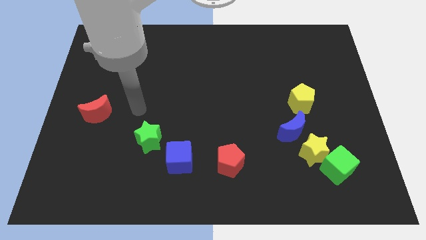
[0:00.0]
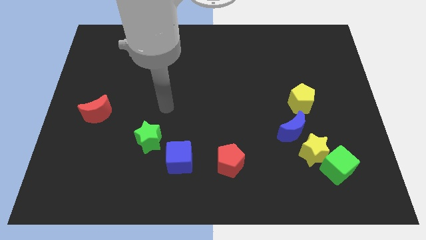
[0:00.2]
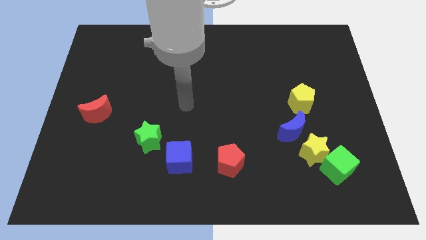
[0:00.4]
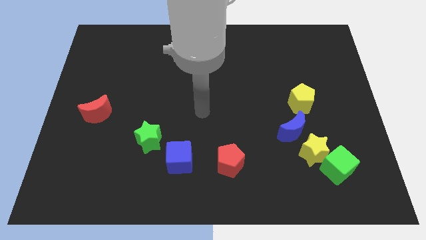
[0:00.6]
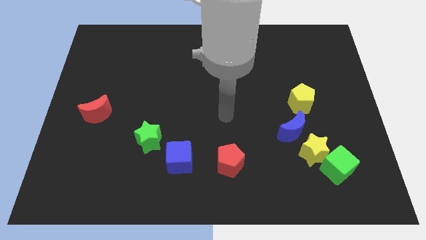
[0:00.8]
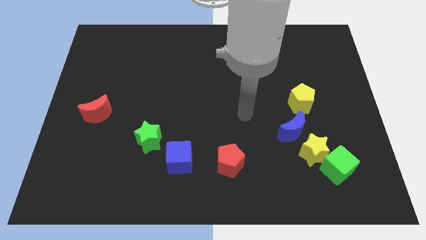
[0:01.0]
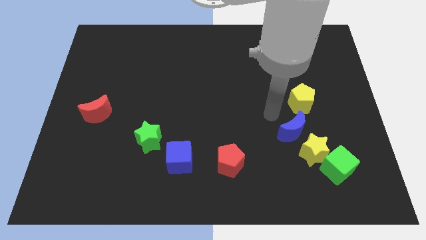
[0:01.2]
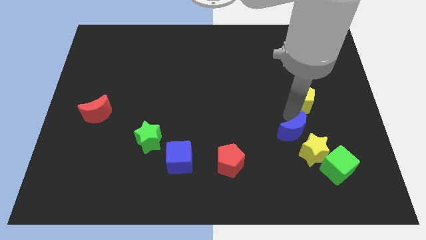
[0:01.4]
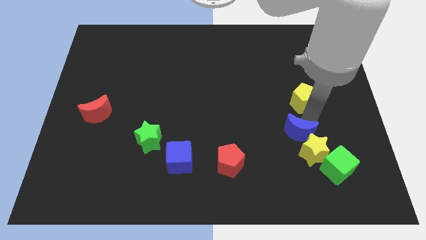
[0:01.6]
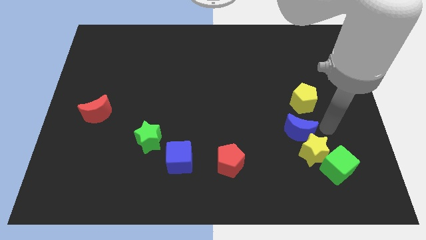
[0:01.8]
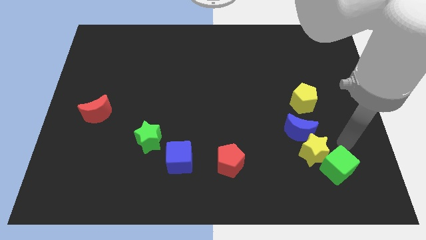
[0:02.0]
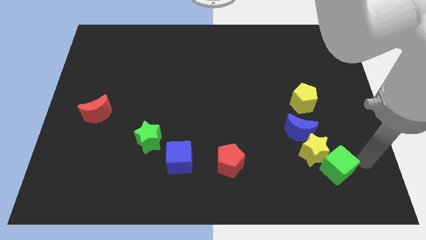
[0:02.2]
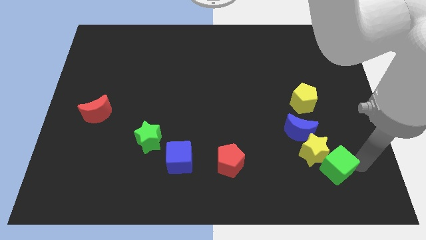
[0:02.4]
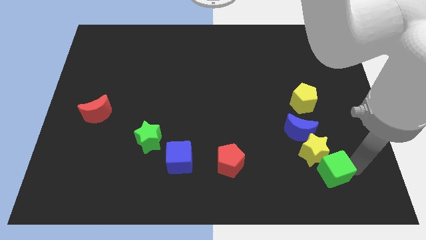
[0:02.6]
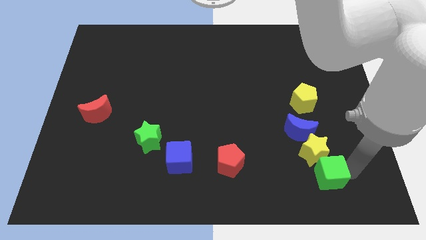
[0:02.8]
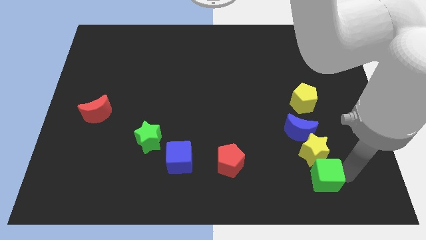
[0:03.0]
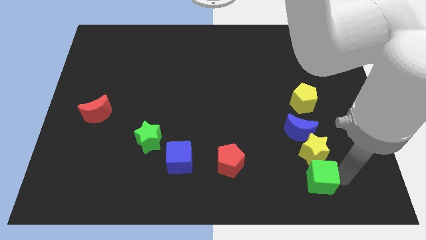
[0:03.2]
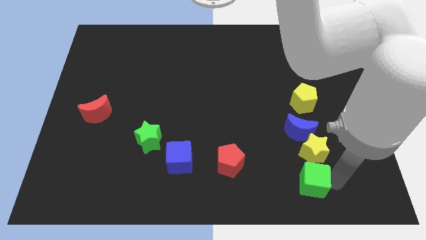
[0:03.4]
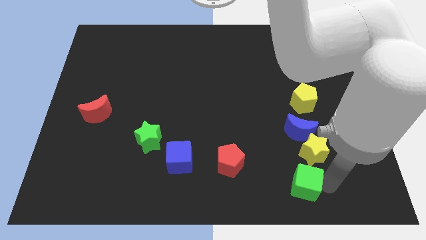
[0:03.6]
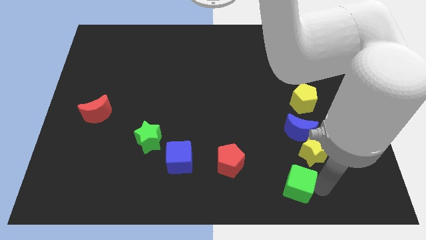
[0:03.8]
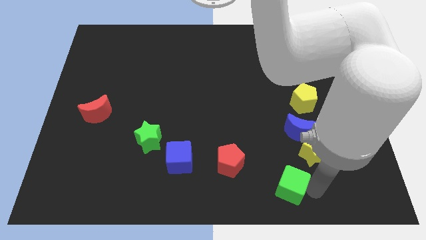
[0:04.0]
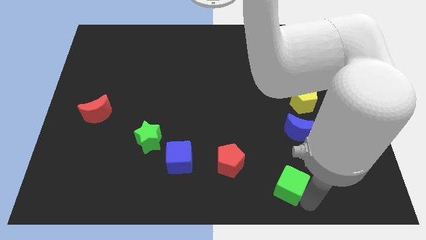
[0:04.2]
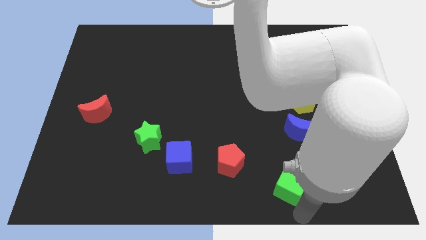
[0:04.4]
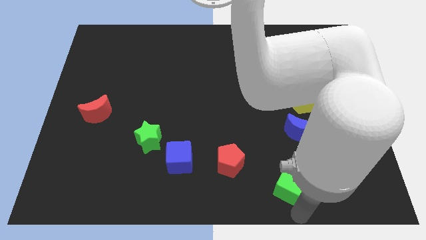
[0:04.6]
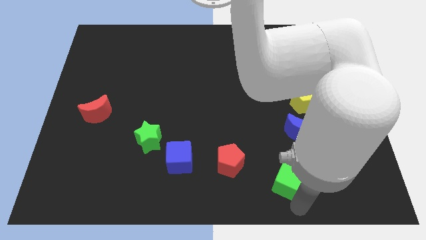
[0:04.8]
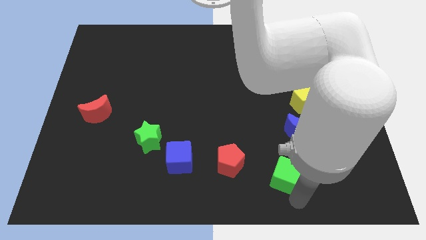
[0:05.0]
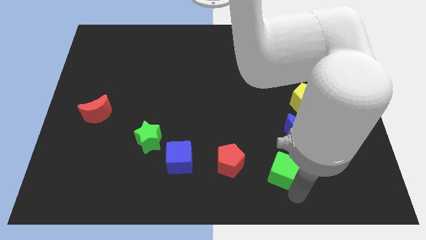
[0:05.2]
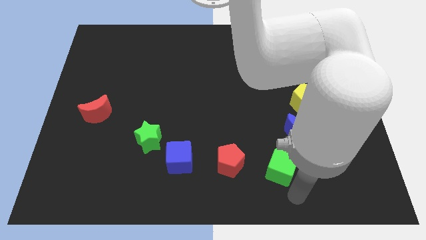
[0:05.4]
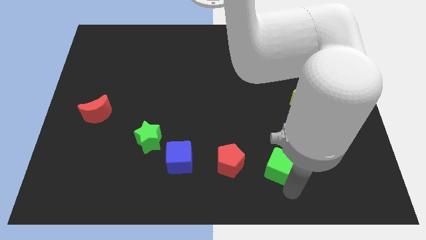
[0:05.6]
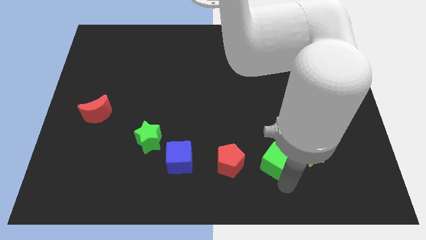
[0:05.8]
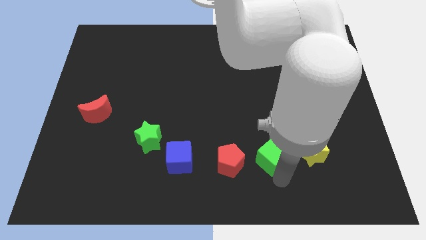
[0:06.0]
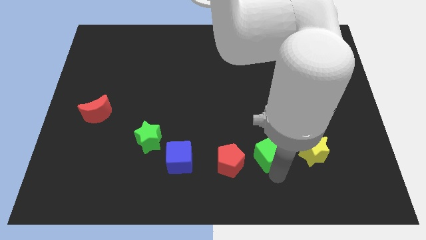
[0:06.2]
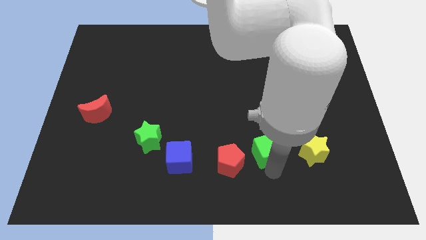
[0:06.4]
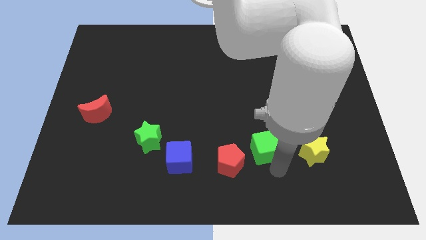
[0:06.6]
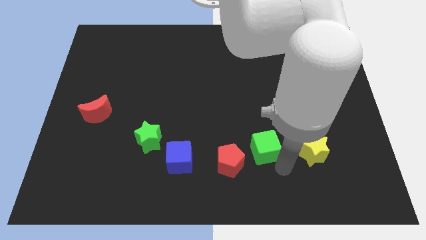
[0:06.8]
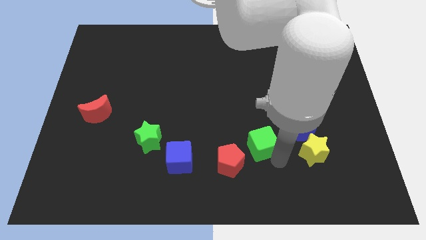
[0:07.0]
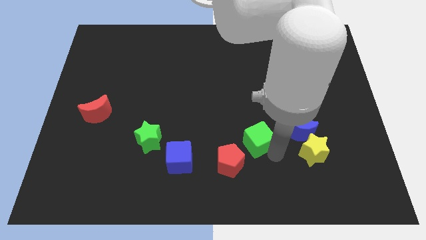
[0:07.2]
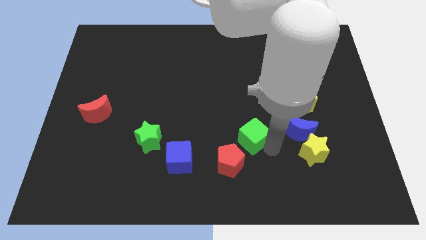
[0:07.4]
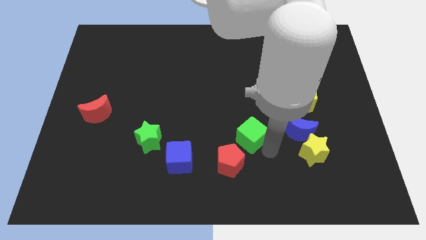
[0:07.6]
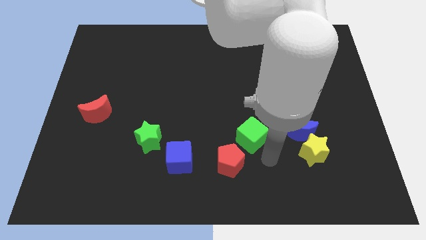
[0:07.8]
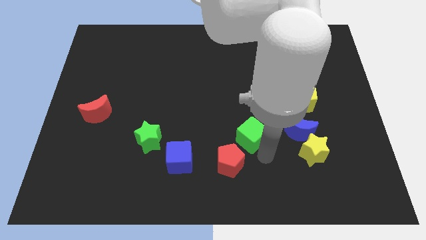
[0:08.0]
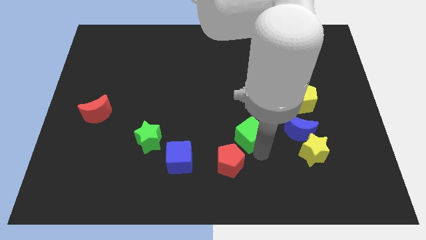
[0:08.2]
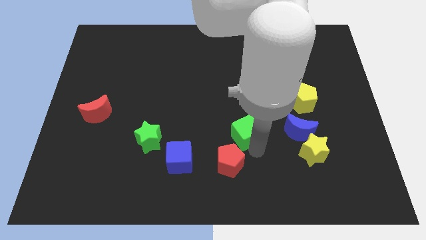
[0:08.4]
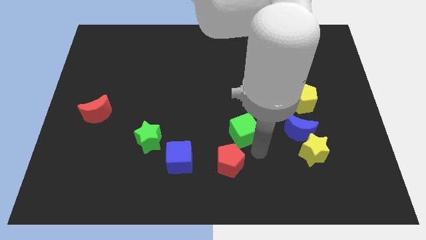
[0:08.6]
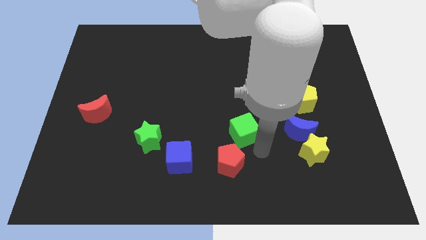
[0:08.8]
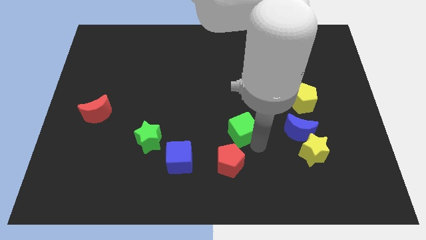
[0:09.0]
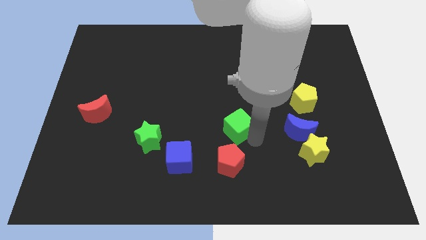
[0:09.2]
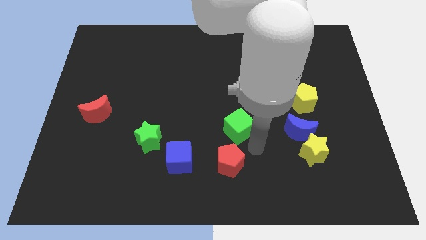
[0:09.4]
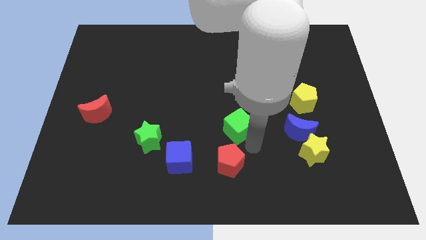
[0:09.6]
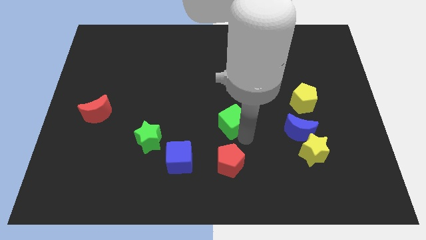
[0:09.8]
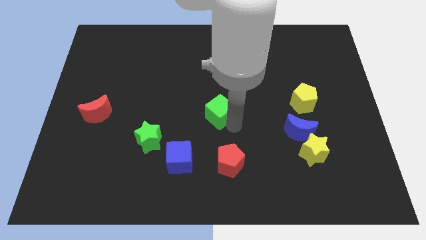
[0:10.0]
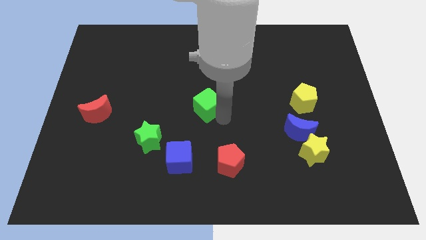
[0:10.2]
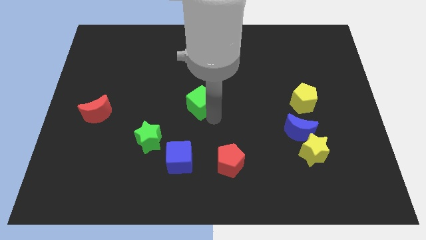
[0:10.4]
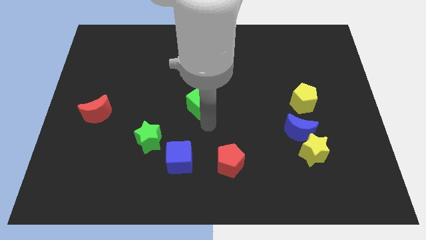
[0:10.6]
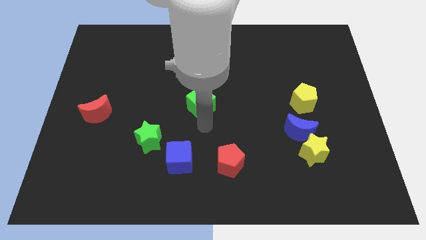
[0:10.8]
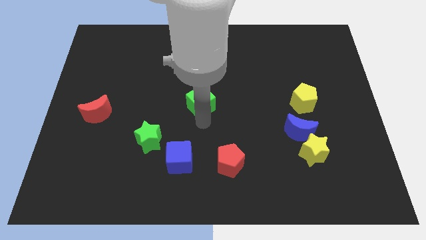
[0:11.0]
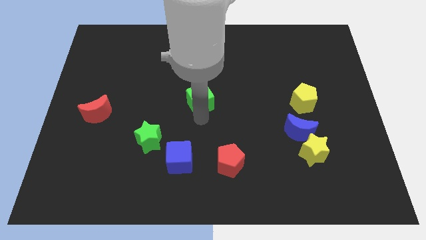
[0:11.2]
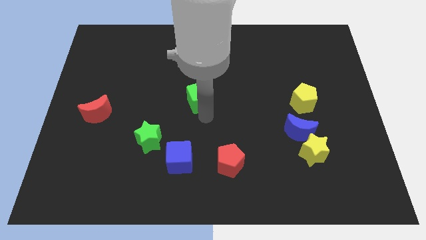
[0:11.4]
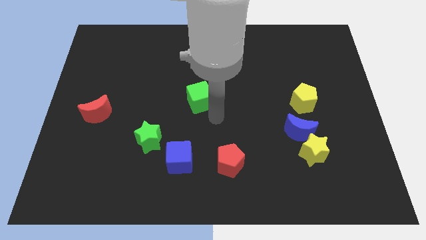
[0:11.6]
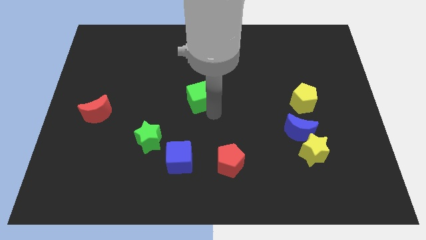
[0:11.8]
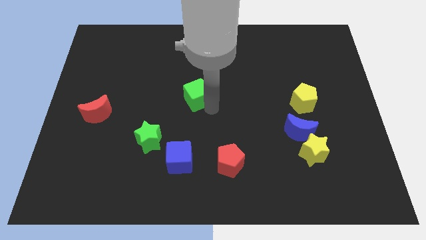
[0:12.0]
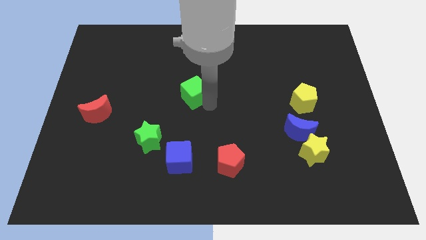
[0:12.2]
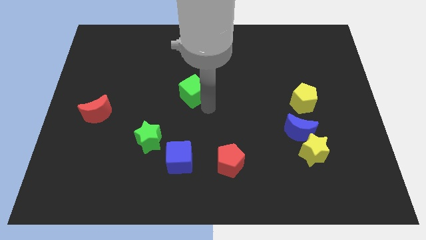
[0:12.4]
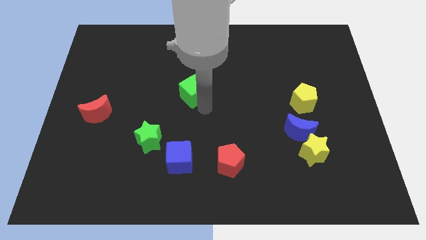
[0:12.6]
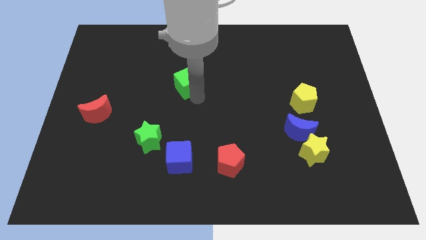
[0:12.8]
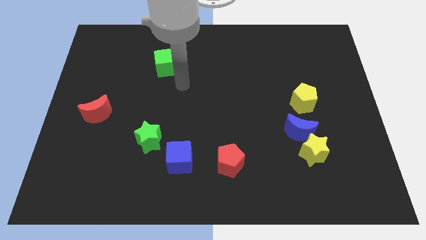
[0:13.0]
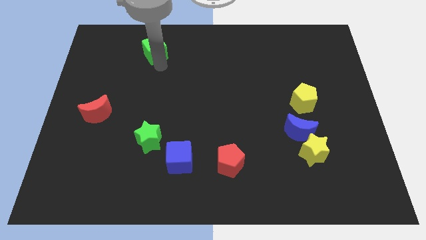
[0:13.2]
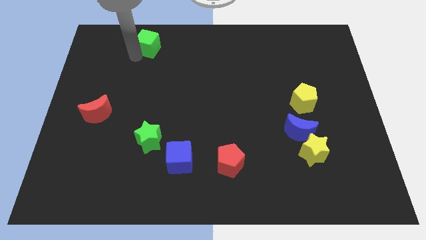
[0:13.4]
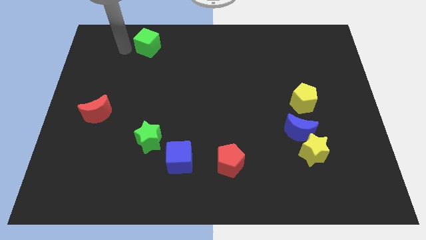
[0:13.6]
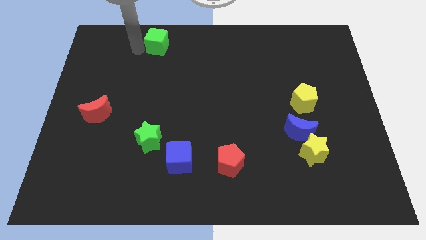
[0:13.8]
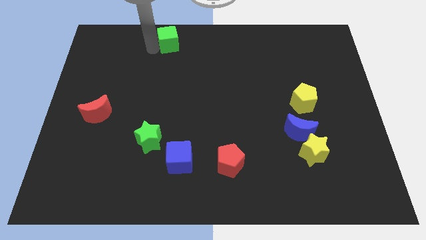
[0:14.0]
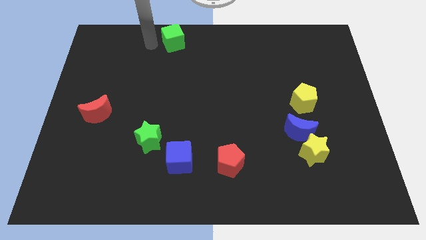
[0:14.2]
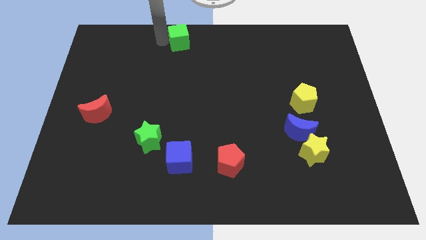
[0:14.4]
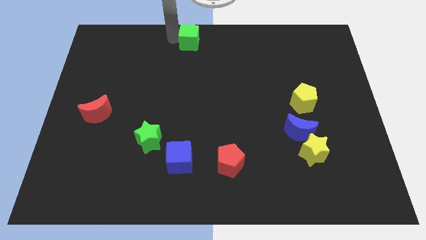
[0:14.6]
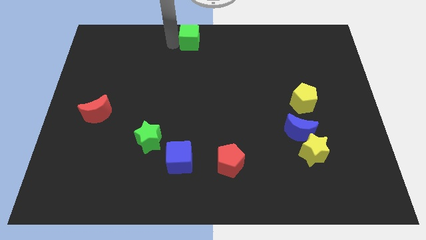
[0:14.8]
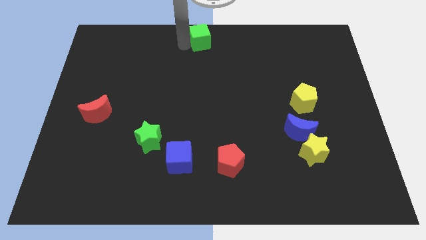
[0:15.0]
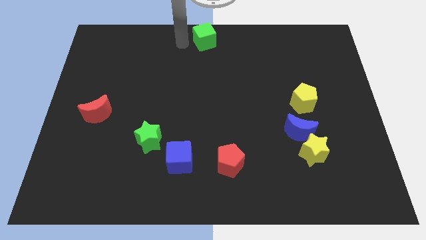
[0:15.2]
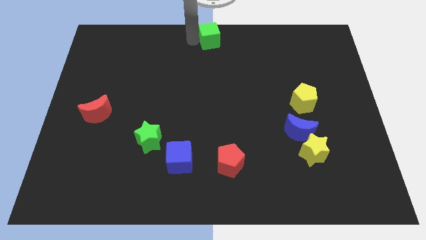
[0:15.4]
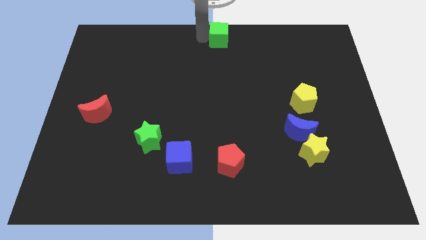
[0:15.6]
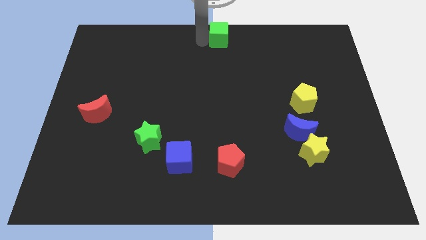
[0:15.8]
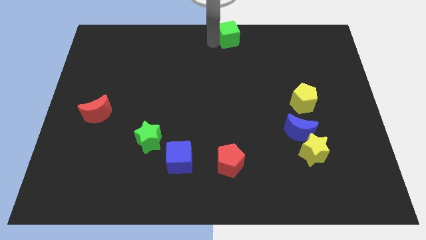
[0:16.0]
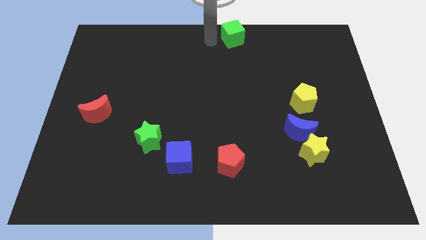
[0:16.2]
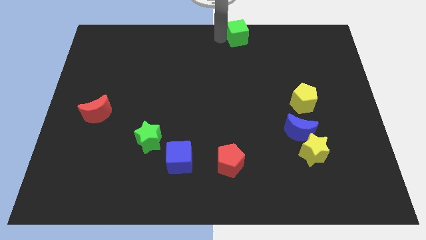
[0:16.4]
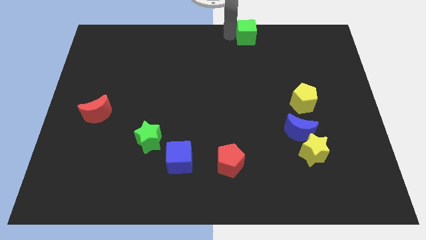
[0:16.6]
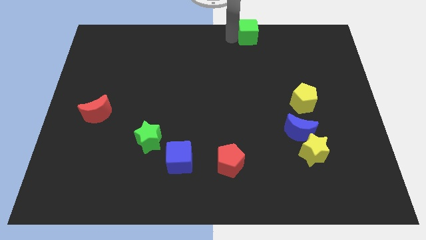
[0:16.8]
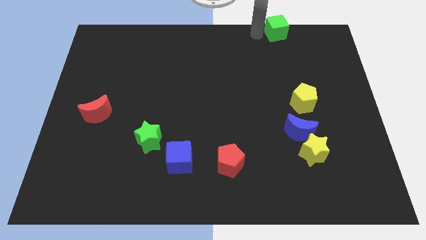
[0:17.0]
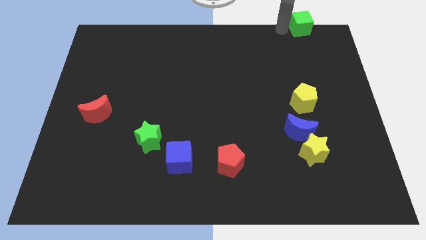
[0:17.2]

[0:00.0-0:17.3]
push the green cube to the top right corner
